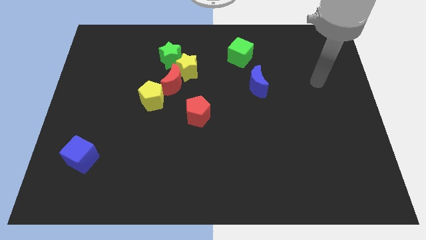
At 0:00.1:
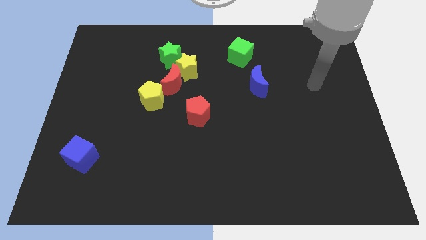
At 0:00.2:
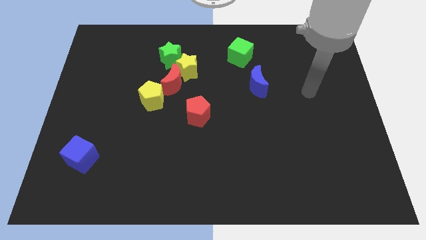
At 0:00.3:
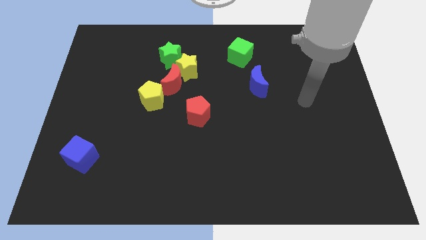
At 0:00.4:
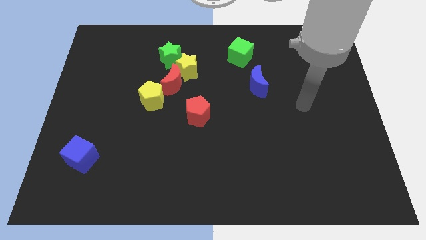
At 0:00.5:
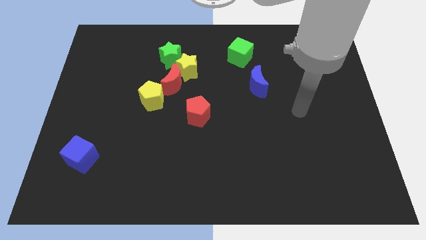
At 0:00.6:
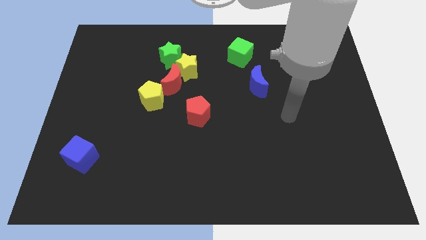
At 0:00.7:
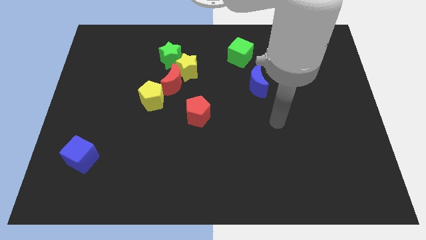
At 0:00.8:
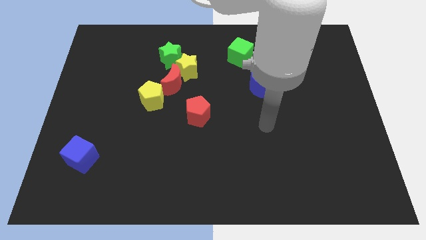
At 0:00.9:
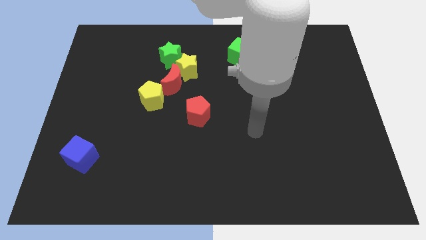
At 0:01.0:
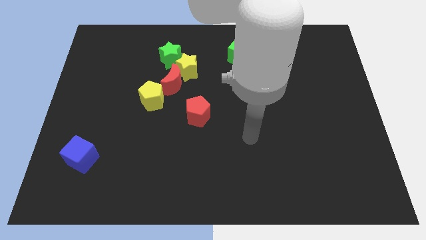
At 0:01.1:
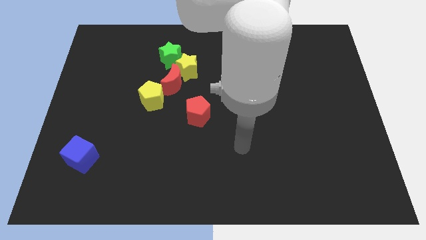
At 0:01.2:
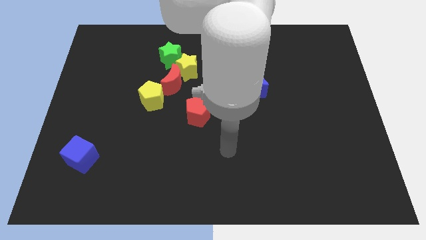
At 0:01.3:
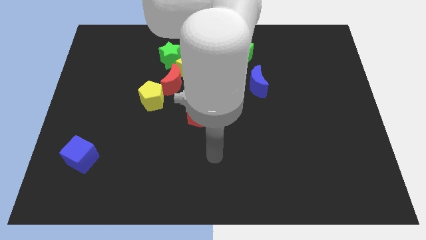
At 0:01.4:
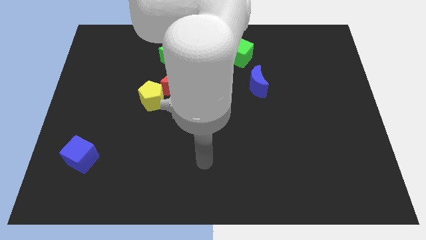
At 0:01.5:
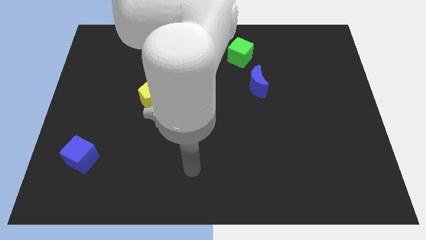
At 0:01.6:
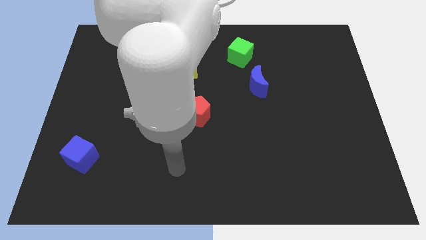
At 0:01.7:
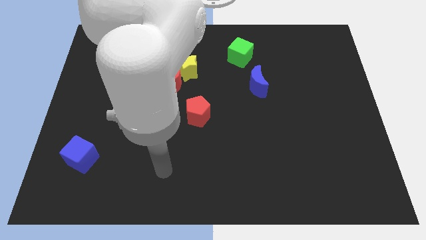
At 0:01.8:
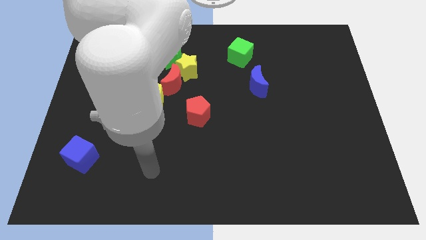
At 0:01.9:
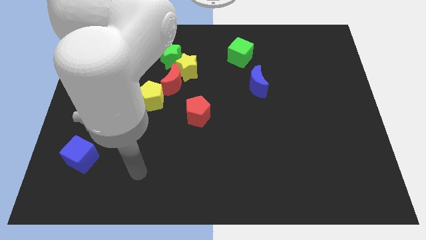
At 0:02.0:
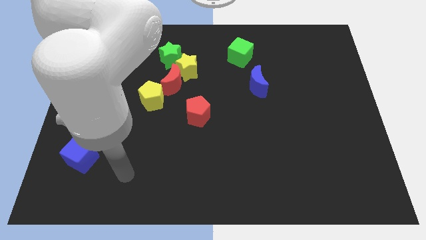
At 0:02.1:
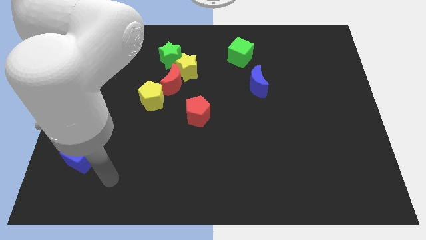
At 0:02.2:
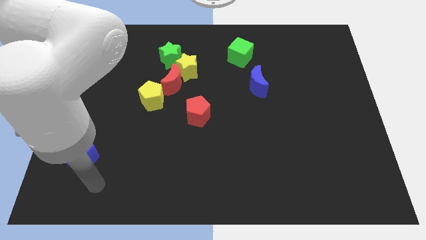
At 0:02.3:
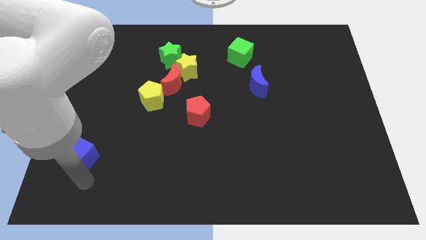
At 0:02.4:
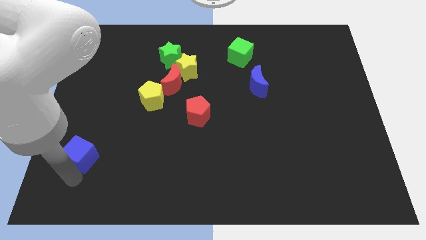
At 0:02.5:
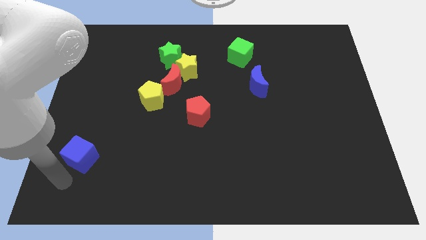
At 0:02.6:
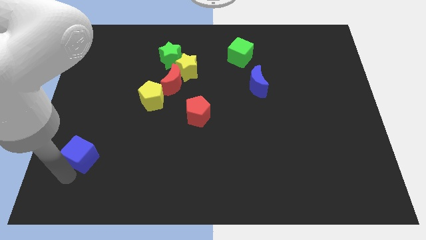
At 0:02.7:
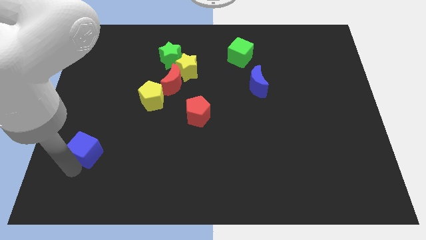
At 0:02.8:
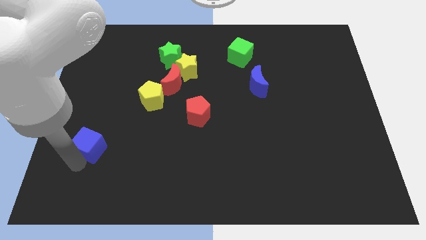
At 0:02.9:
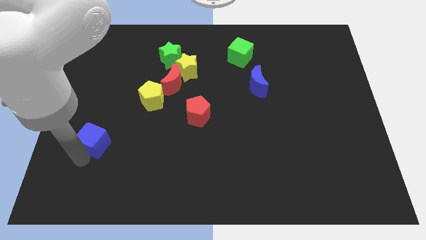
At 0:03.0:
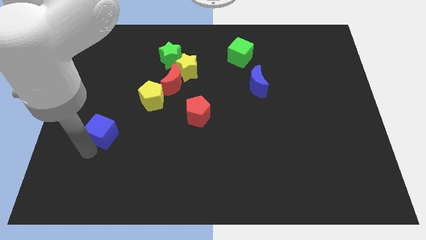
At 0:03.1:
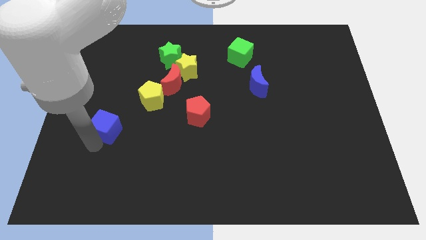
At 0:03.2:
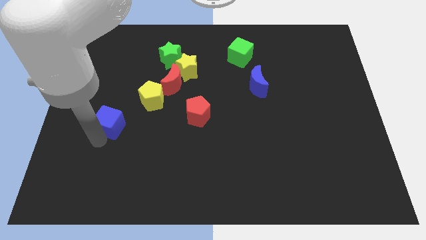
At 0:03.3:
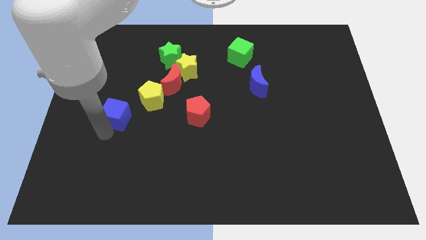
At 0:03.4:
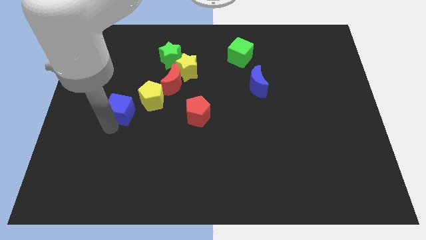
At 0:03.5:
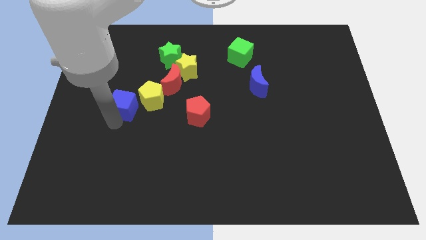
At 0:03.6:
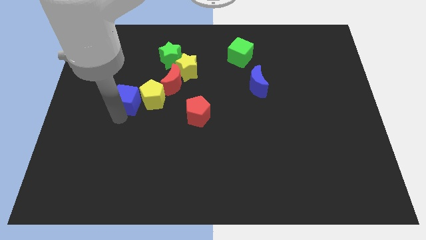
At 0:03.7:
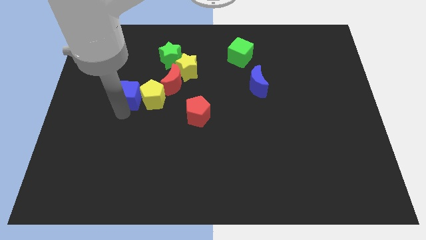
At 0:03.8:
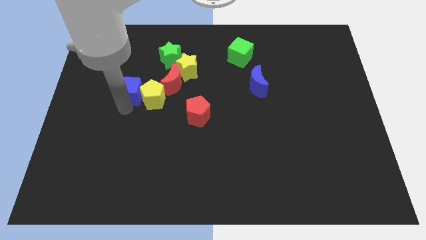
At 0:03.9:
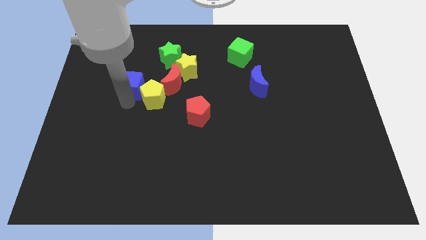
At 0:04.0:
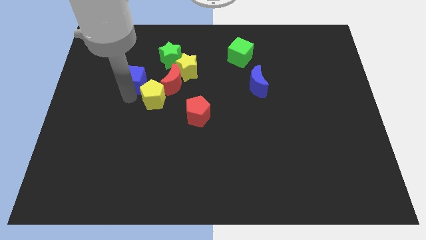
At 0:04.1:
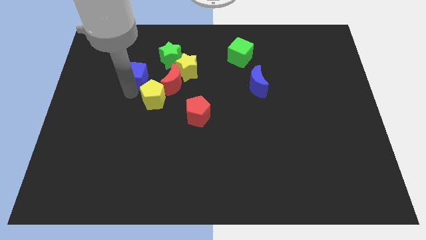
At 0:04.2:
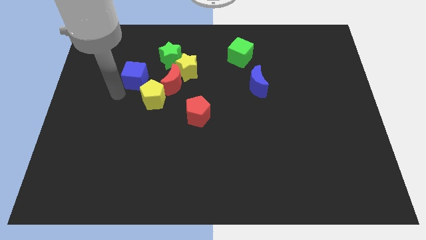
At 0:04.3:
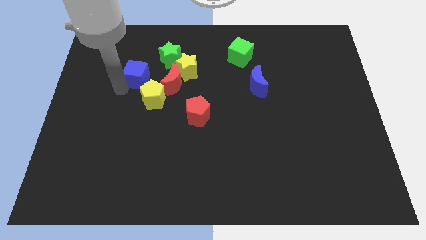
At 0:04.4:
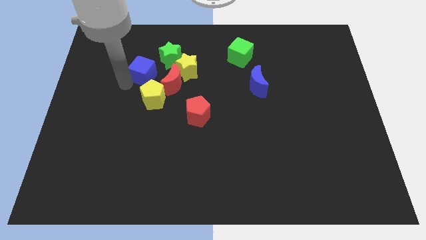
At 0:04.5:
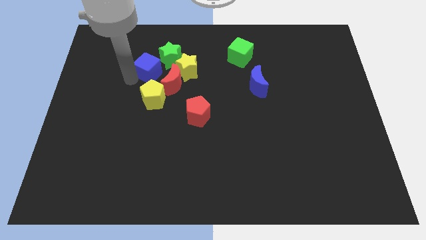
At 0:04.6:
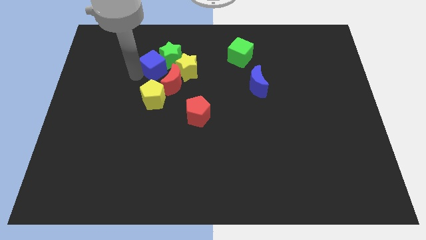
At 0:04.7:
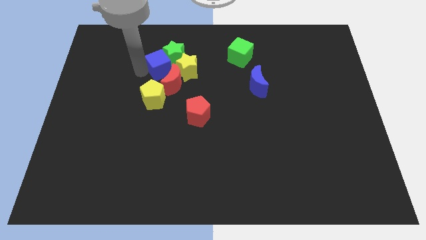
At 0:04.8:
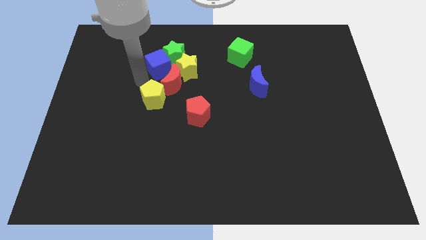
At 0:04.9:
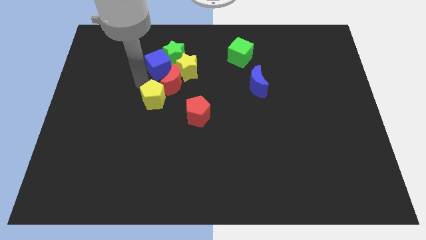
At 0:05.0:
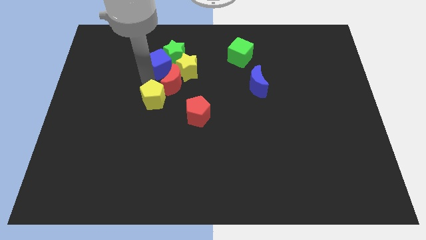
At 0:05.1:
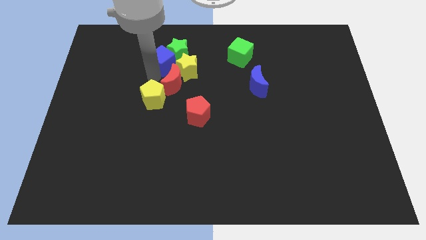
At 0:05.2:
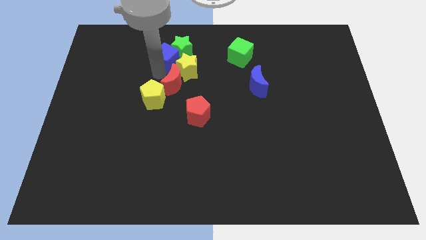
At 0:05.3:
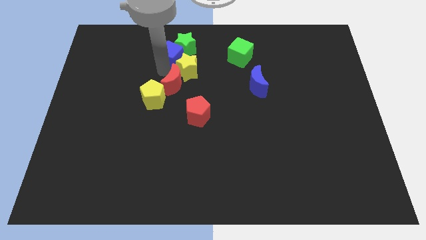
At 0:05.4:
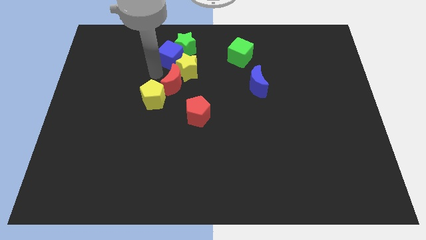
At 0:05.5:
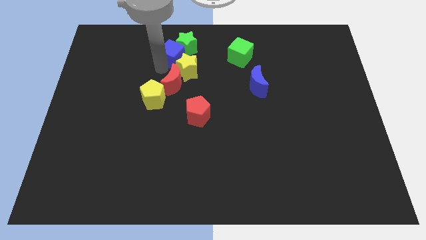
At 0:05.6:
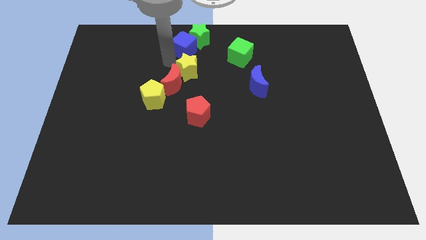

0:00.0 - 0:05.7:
move the blue cube to the towards your base
